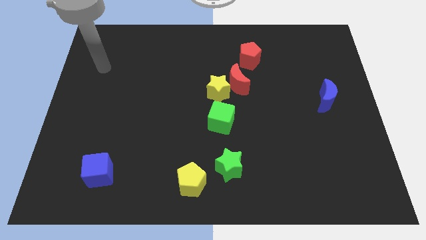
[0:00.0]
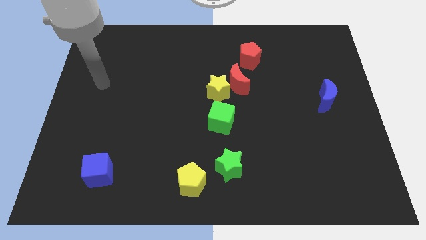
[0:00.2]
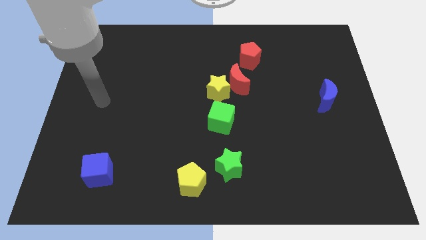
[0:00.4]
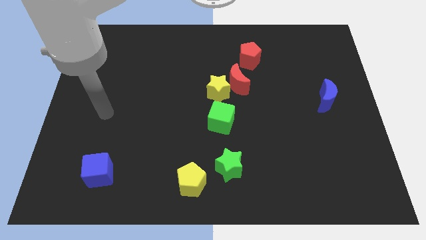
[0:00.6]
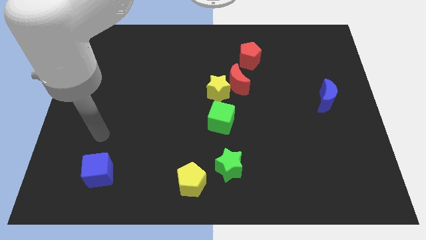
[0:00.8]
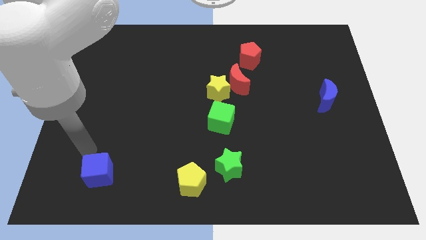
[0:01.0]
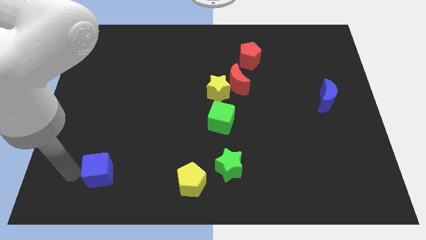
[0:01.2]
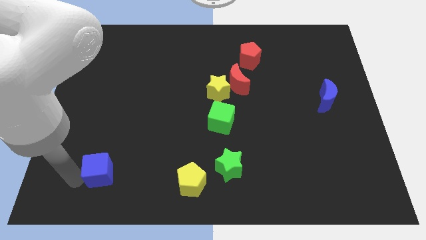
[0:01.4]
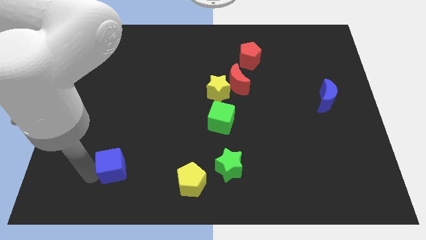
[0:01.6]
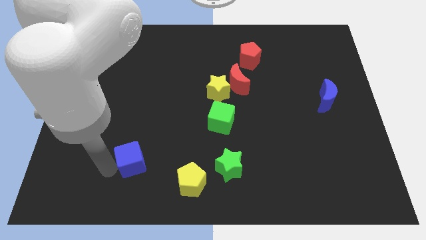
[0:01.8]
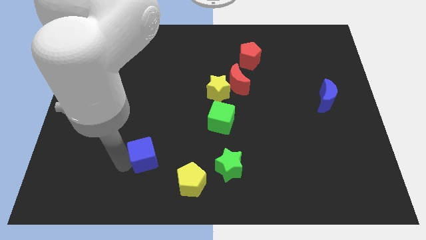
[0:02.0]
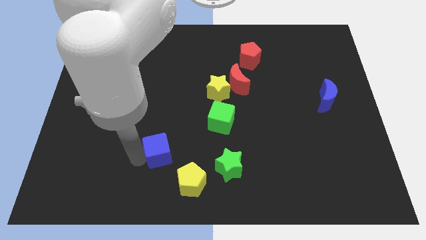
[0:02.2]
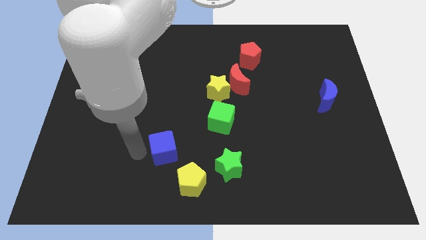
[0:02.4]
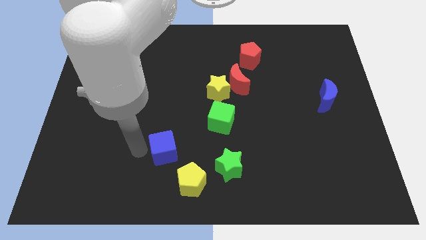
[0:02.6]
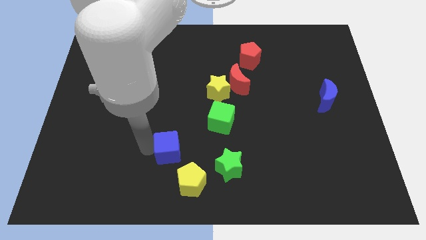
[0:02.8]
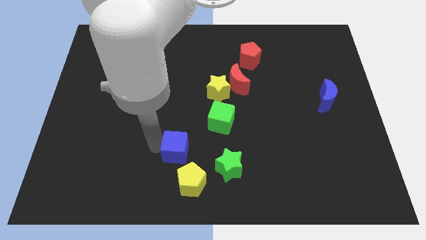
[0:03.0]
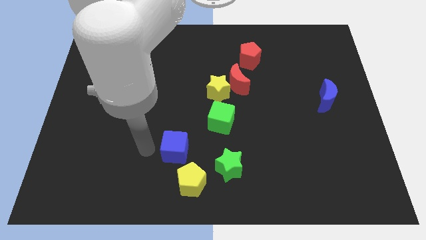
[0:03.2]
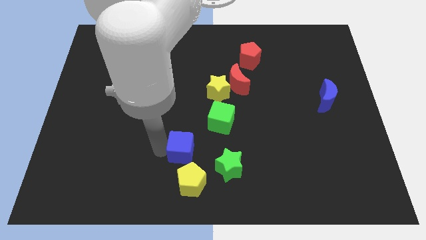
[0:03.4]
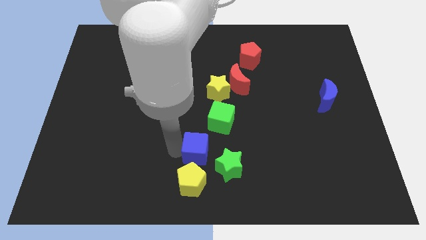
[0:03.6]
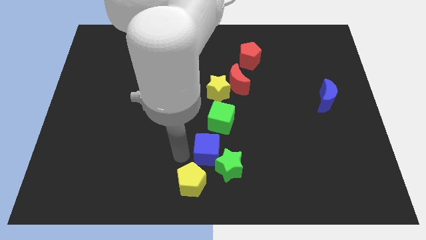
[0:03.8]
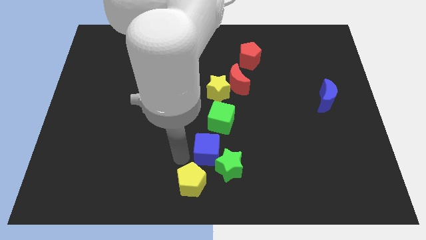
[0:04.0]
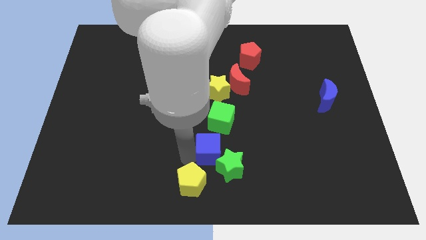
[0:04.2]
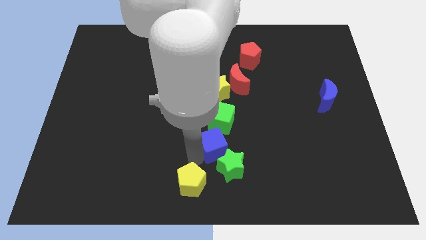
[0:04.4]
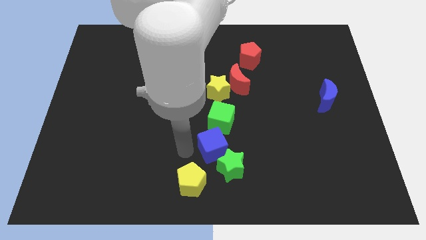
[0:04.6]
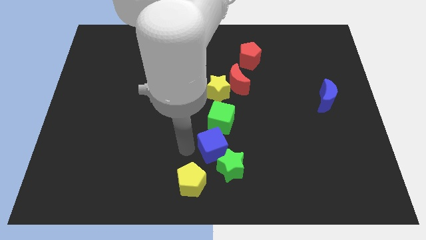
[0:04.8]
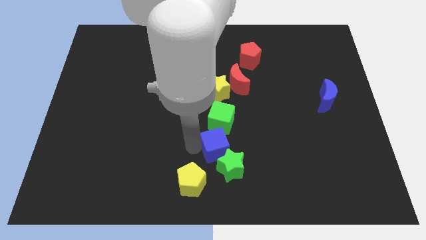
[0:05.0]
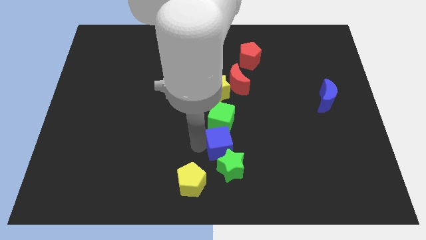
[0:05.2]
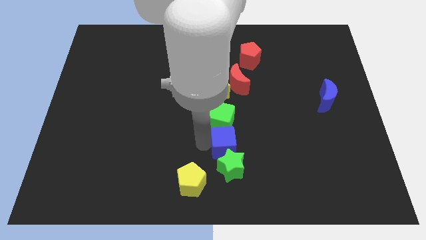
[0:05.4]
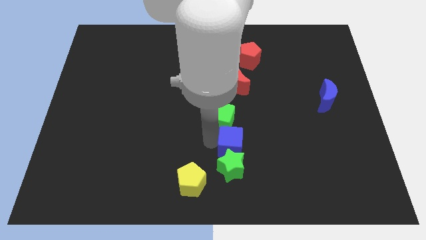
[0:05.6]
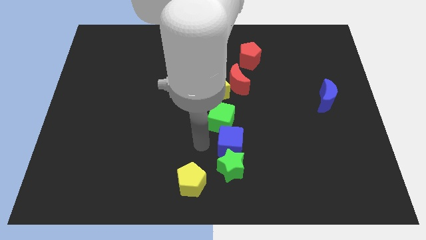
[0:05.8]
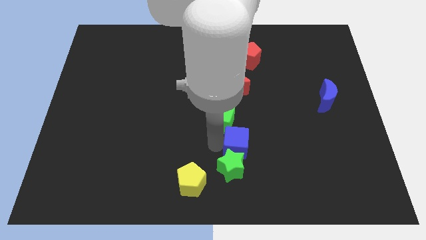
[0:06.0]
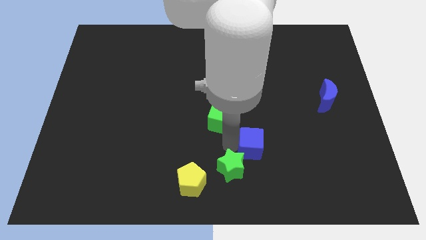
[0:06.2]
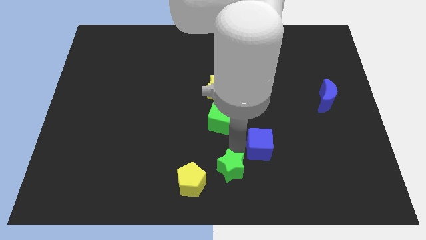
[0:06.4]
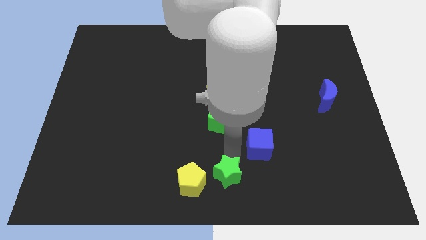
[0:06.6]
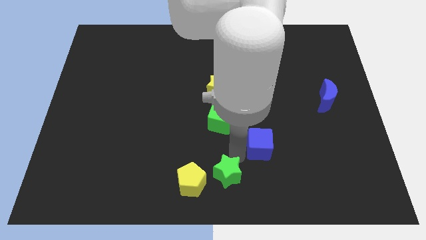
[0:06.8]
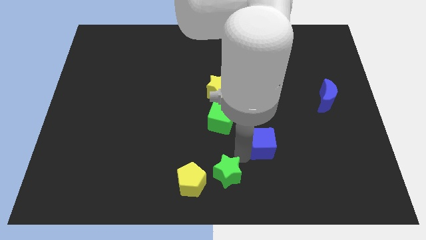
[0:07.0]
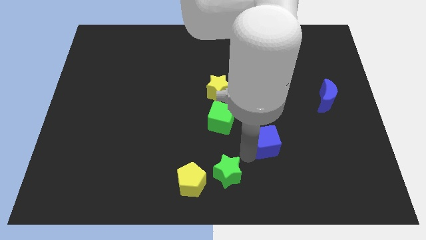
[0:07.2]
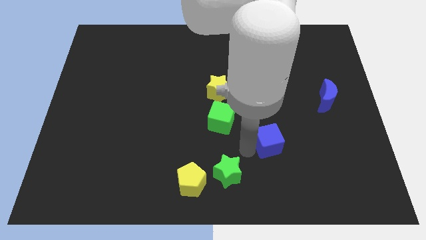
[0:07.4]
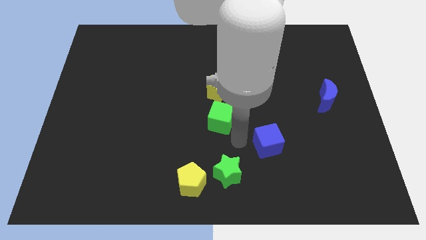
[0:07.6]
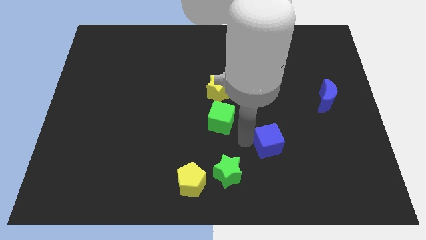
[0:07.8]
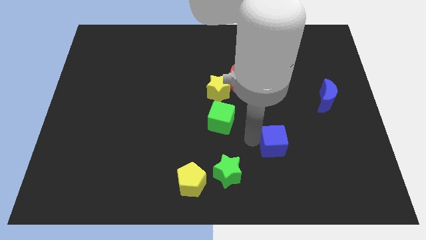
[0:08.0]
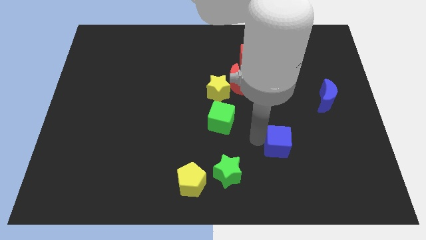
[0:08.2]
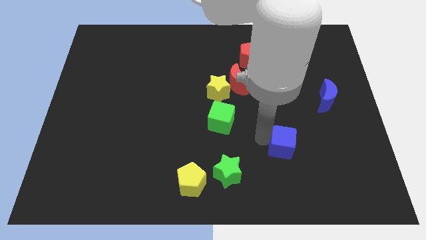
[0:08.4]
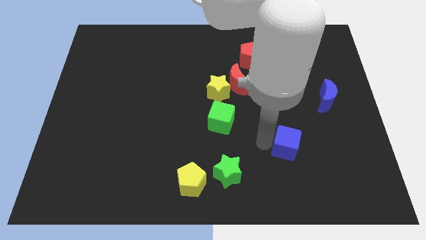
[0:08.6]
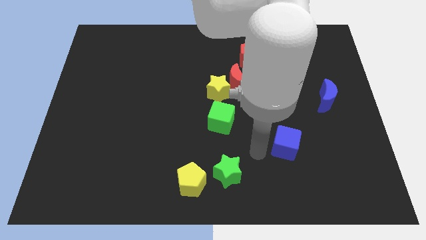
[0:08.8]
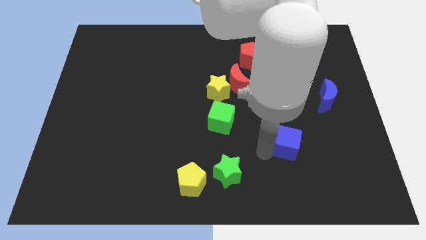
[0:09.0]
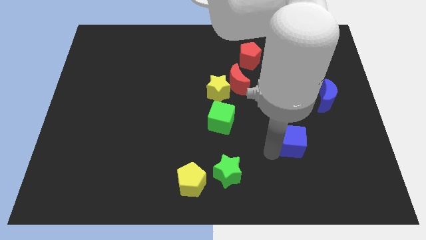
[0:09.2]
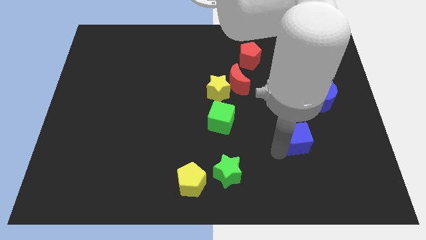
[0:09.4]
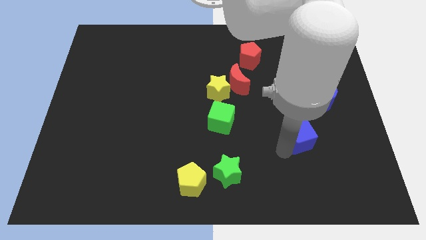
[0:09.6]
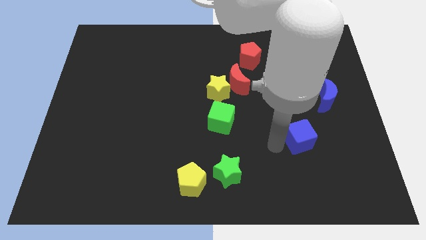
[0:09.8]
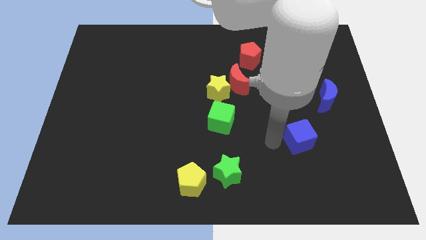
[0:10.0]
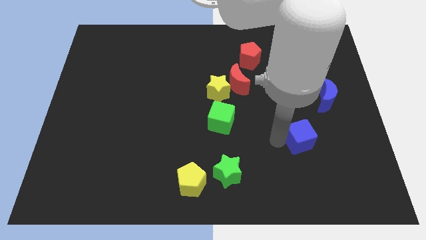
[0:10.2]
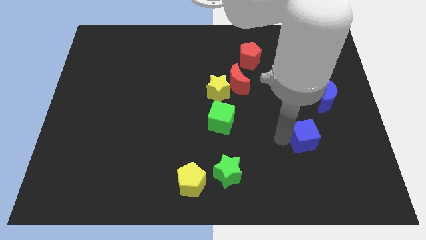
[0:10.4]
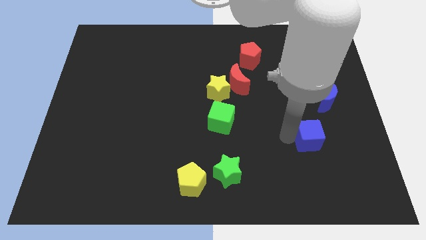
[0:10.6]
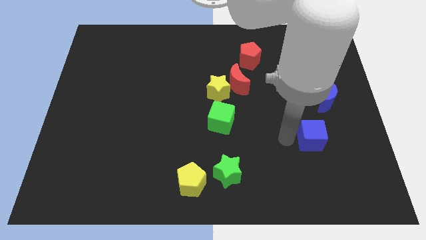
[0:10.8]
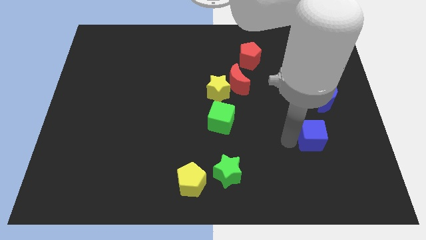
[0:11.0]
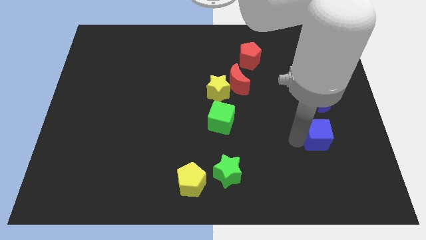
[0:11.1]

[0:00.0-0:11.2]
push the blue cube below the blue moon

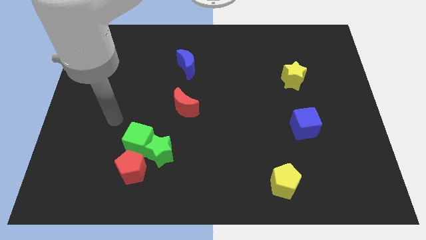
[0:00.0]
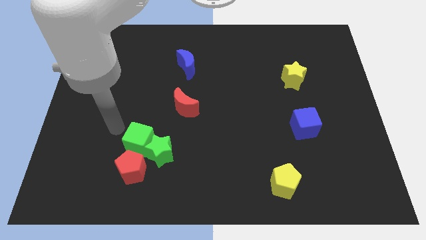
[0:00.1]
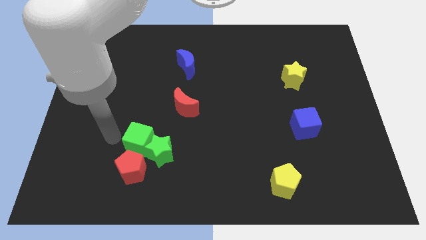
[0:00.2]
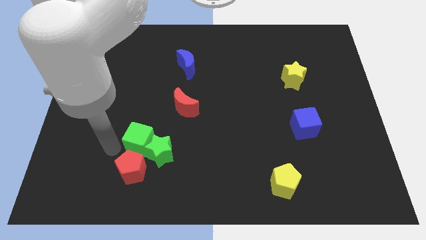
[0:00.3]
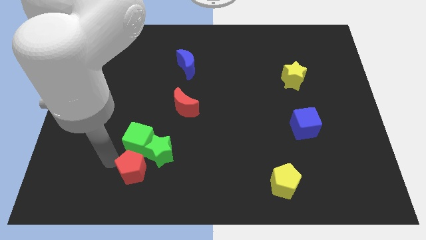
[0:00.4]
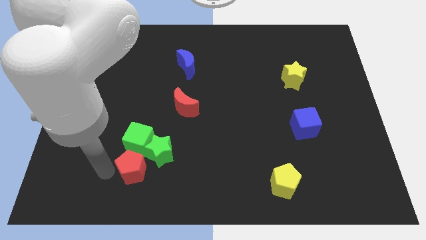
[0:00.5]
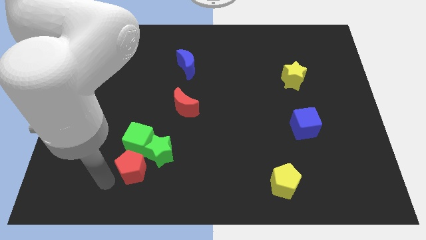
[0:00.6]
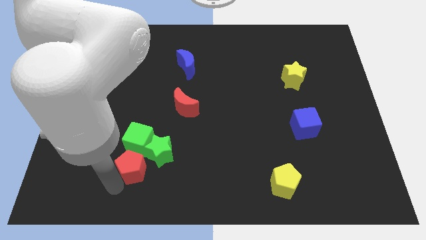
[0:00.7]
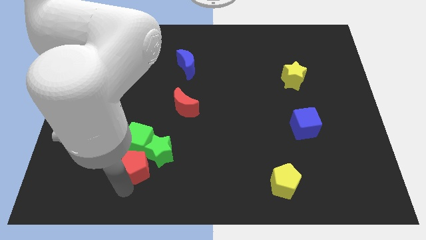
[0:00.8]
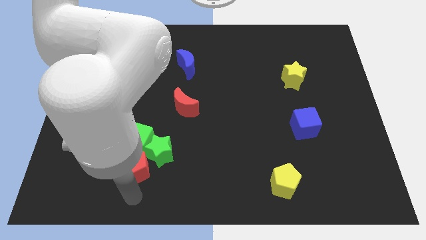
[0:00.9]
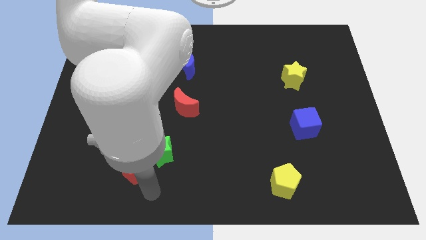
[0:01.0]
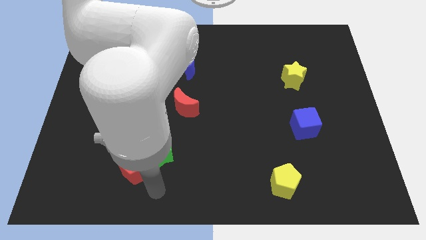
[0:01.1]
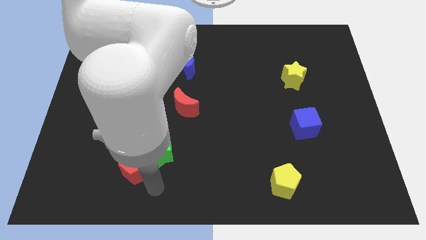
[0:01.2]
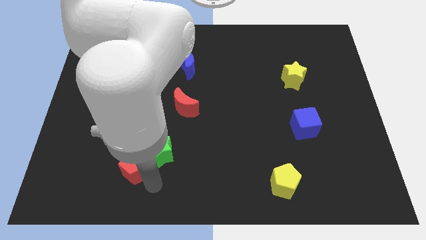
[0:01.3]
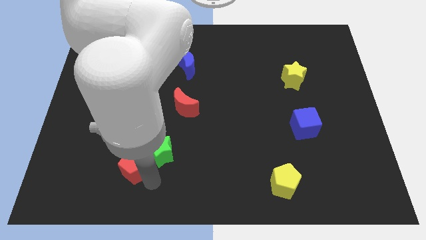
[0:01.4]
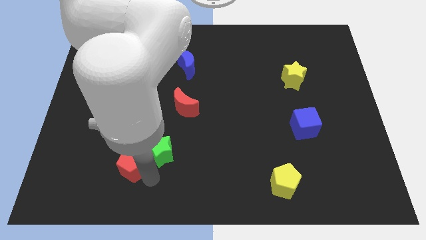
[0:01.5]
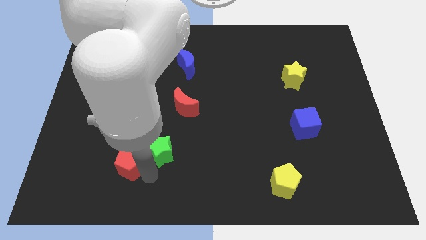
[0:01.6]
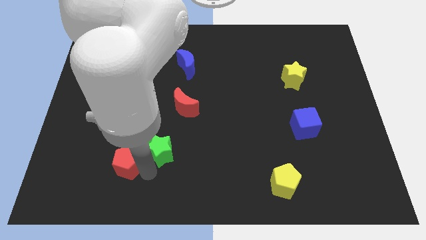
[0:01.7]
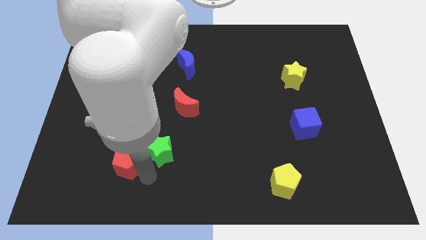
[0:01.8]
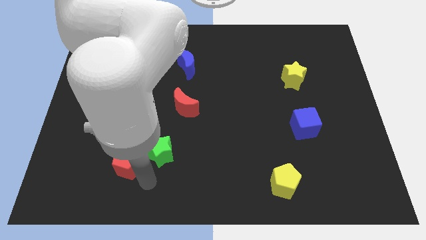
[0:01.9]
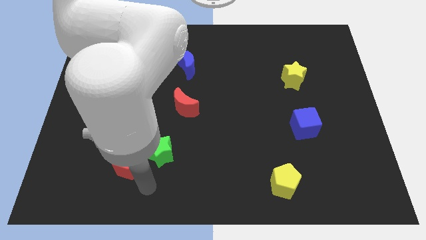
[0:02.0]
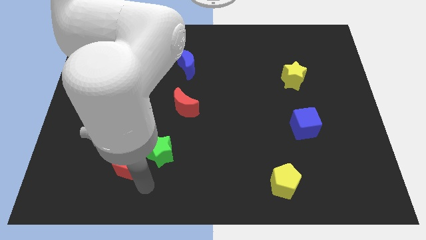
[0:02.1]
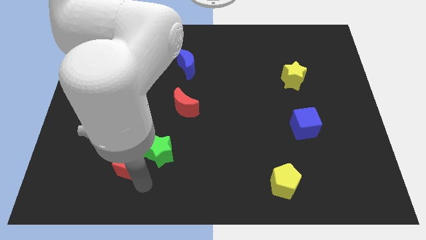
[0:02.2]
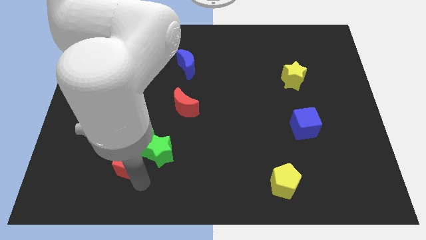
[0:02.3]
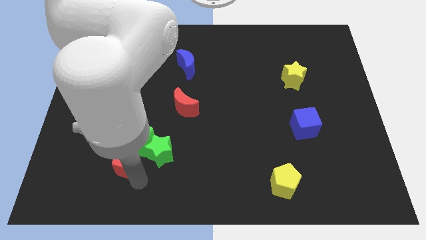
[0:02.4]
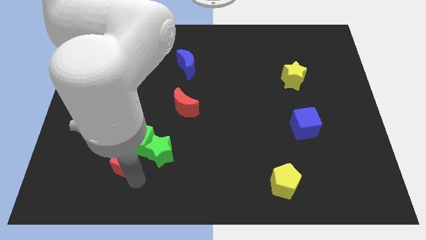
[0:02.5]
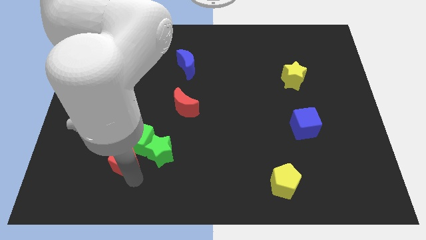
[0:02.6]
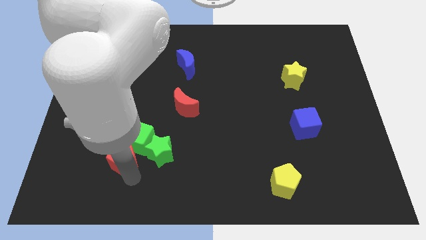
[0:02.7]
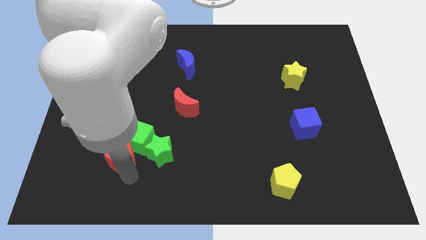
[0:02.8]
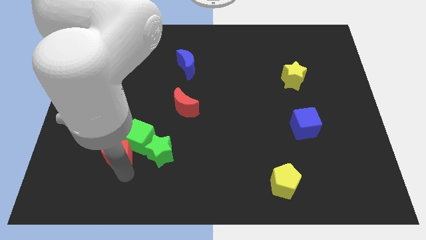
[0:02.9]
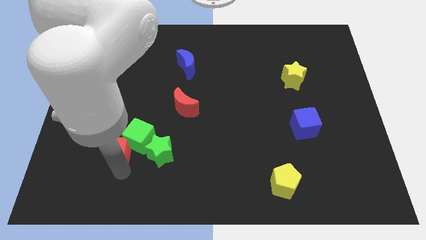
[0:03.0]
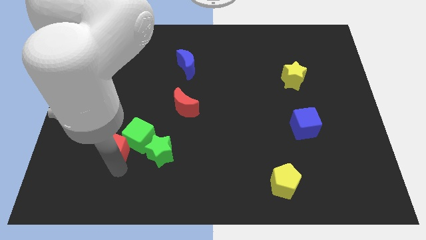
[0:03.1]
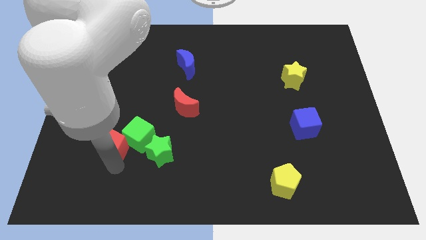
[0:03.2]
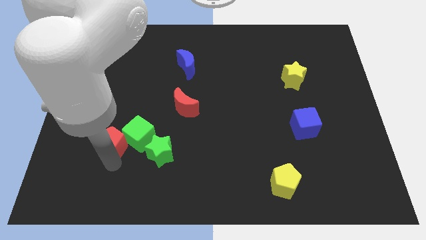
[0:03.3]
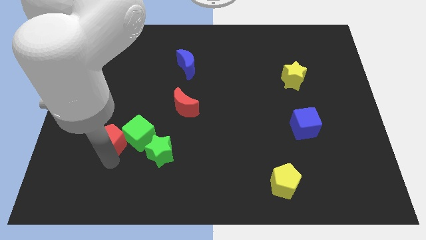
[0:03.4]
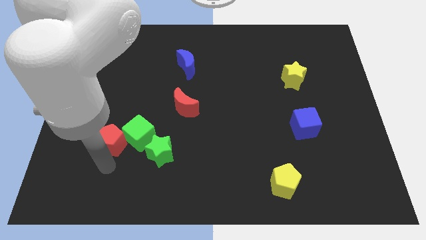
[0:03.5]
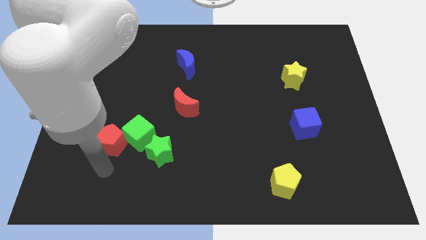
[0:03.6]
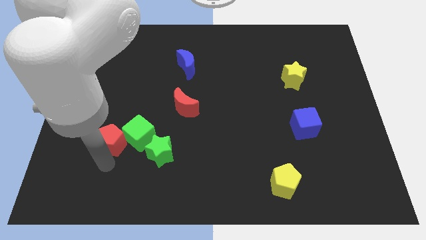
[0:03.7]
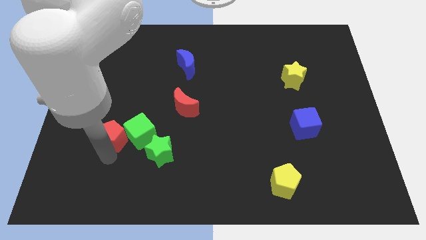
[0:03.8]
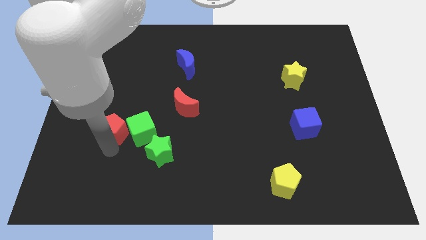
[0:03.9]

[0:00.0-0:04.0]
slide the red pentagon to the top left side of the green cube
